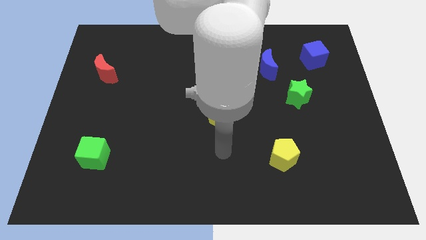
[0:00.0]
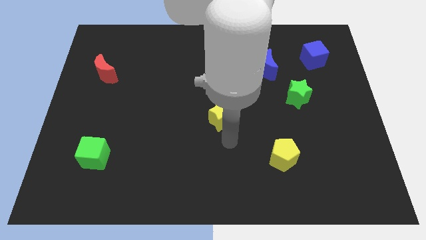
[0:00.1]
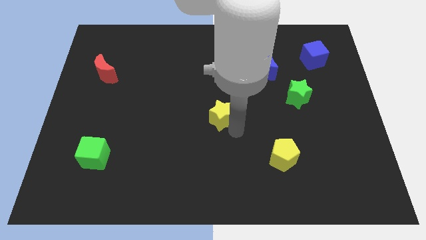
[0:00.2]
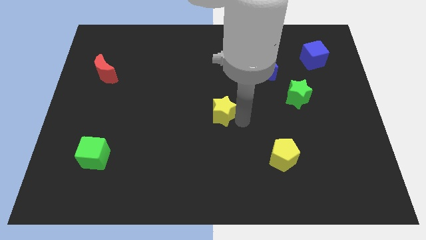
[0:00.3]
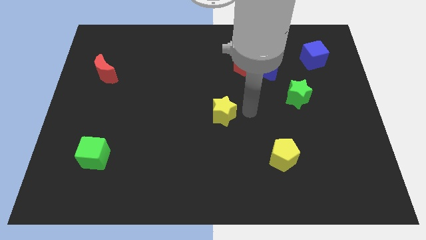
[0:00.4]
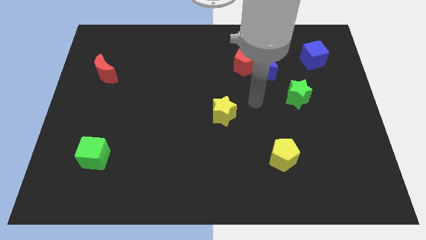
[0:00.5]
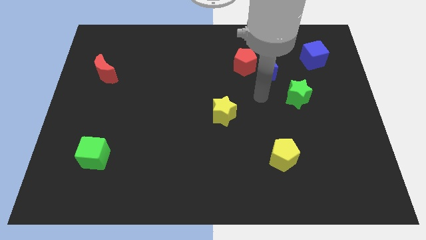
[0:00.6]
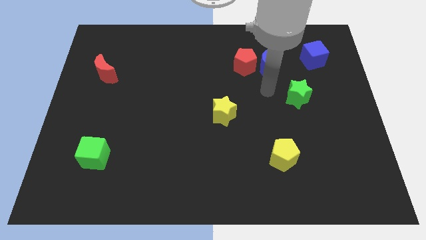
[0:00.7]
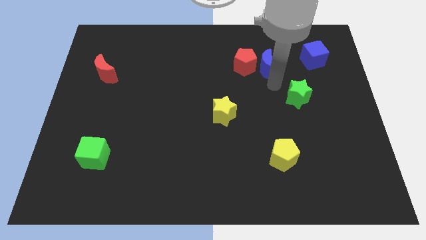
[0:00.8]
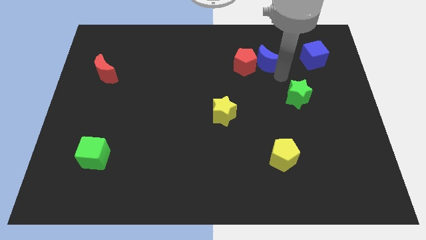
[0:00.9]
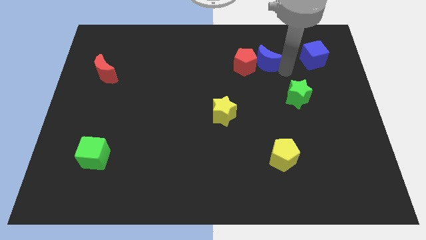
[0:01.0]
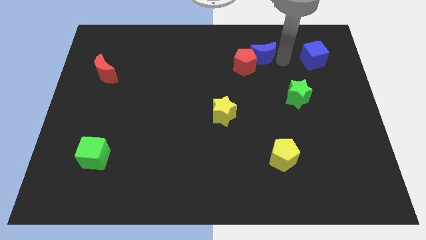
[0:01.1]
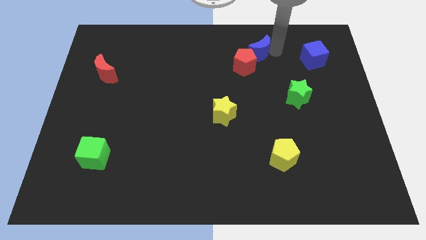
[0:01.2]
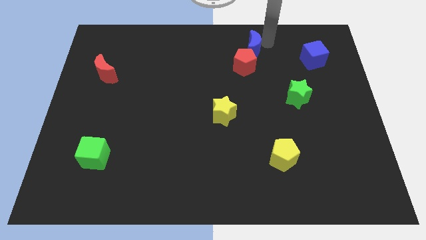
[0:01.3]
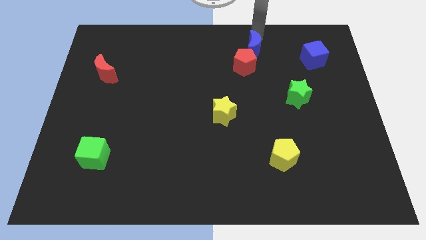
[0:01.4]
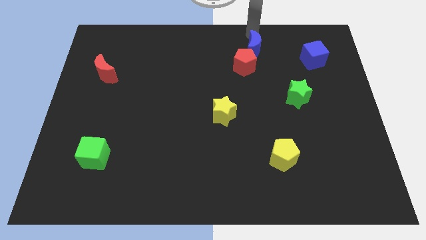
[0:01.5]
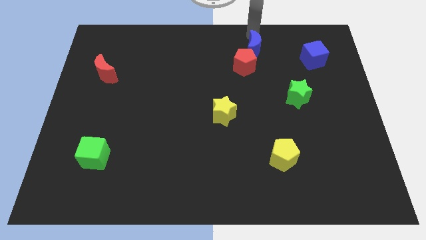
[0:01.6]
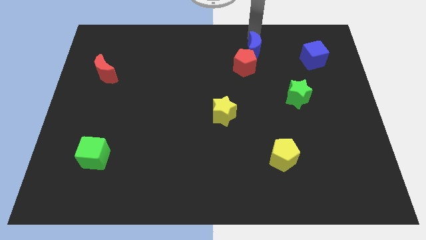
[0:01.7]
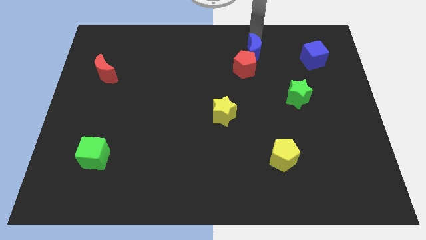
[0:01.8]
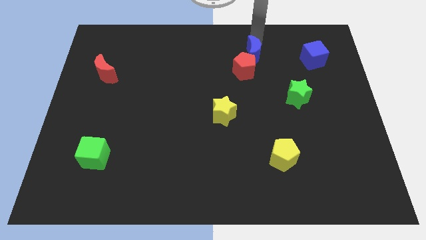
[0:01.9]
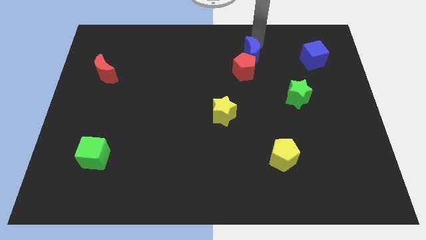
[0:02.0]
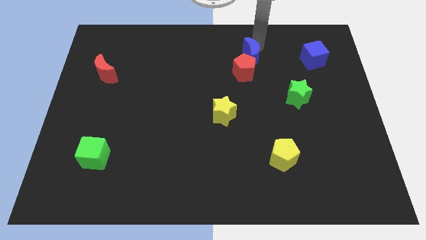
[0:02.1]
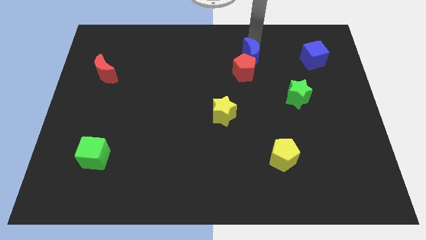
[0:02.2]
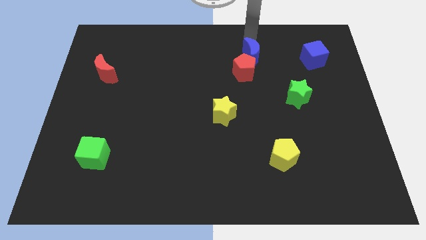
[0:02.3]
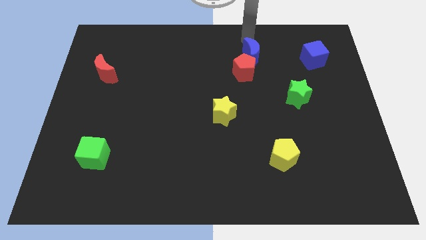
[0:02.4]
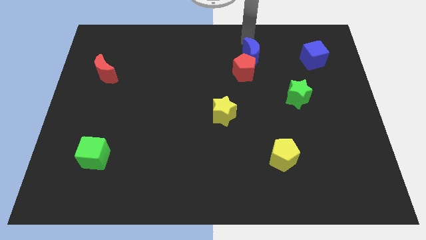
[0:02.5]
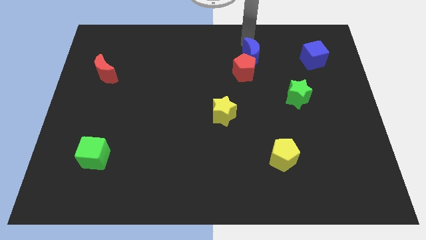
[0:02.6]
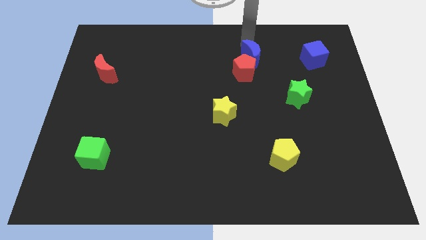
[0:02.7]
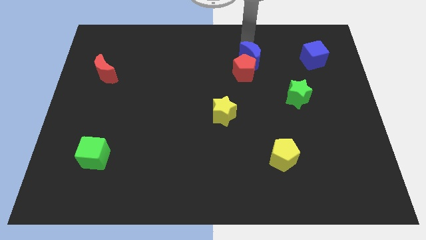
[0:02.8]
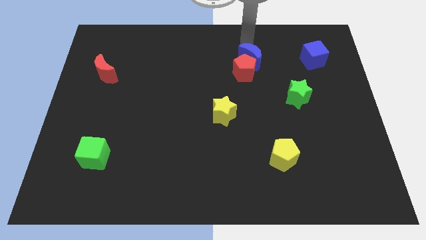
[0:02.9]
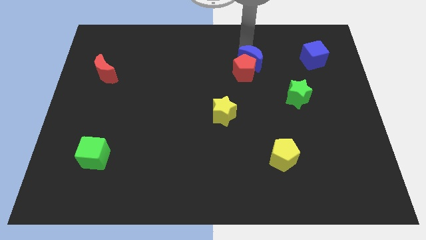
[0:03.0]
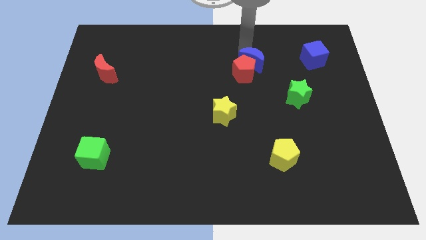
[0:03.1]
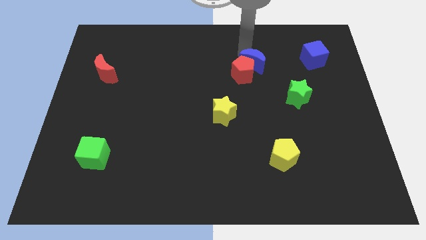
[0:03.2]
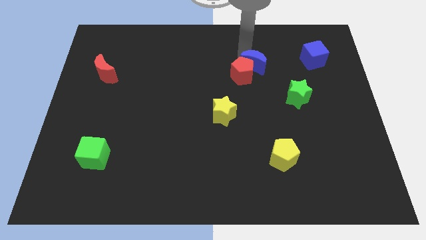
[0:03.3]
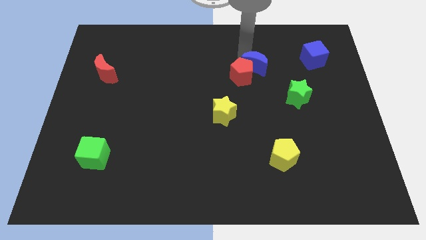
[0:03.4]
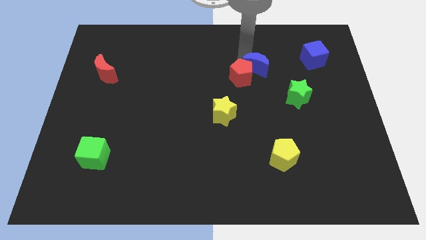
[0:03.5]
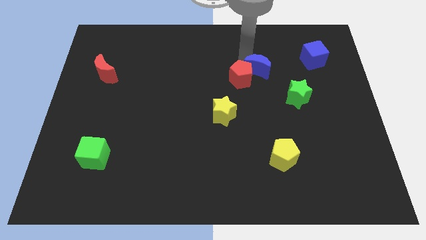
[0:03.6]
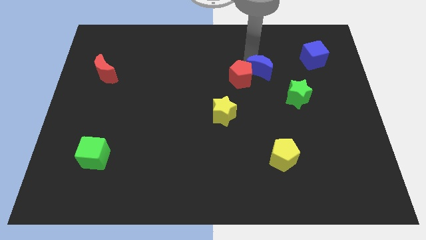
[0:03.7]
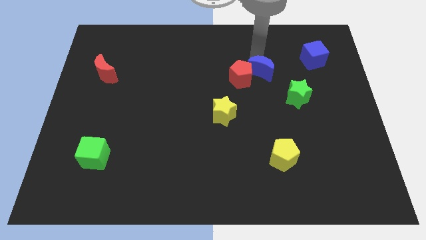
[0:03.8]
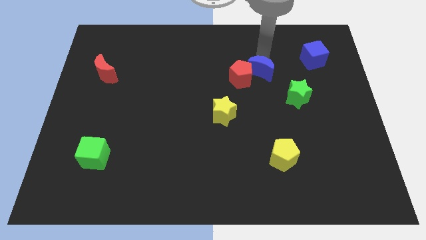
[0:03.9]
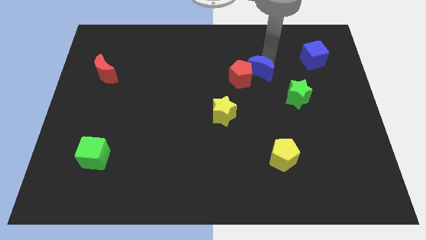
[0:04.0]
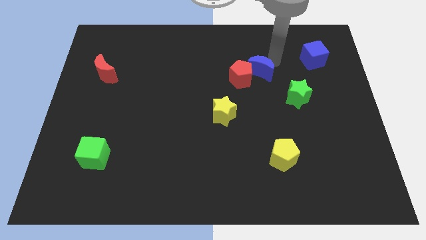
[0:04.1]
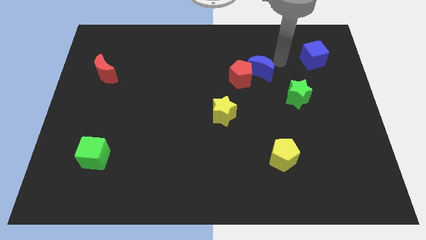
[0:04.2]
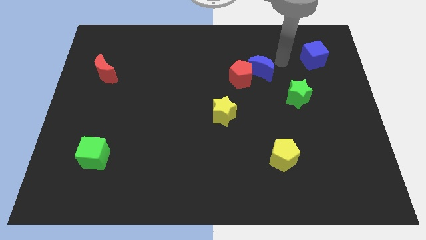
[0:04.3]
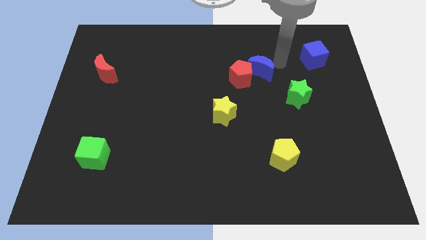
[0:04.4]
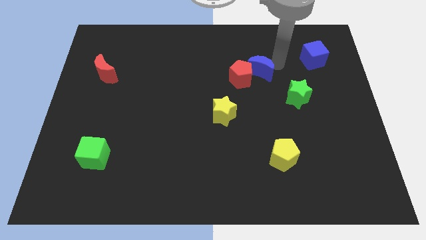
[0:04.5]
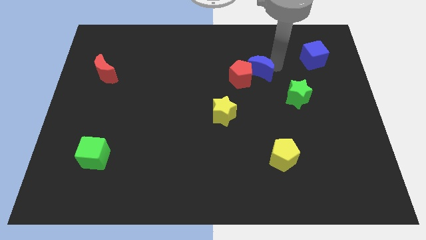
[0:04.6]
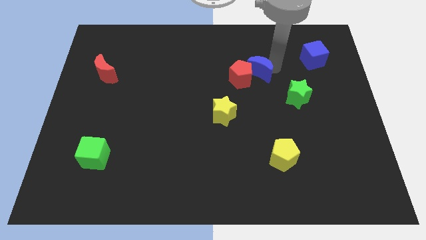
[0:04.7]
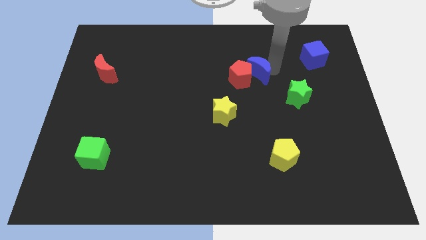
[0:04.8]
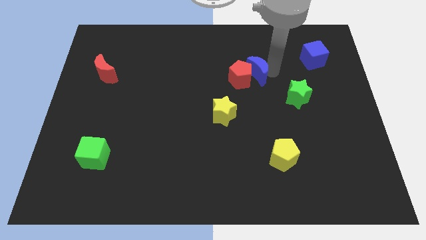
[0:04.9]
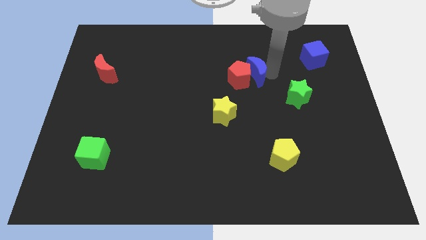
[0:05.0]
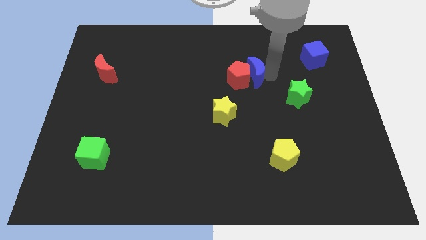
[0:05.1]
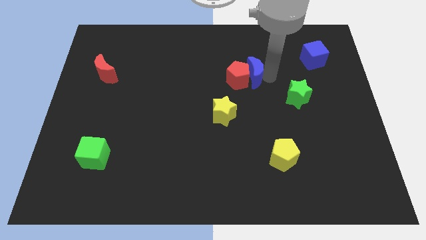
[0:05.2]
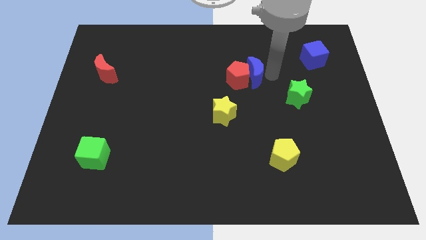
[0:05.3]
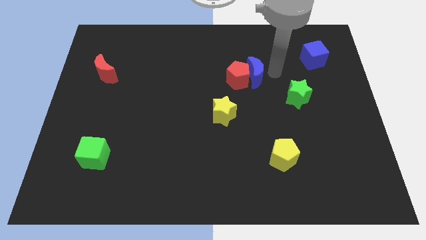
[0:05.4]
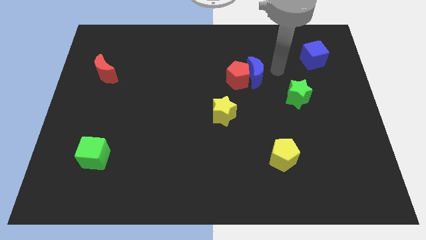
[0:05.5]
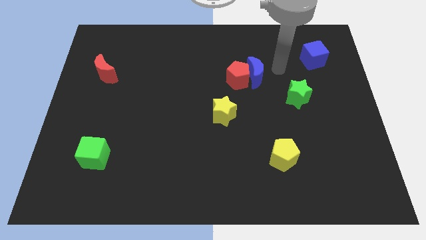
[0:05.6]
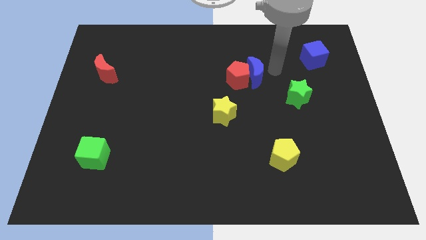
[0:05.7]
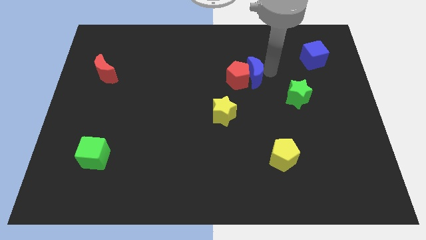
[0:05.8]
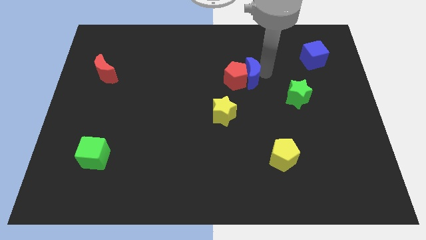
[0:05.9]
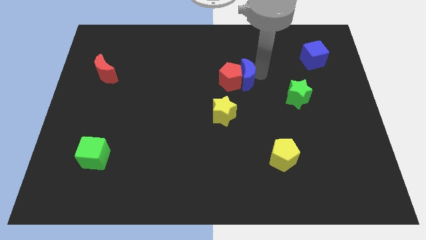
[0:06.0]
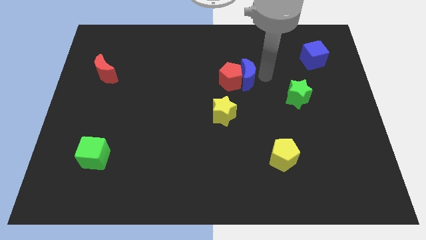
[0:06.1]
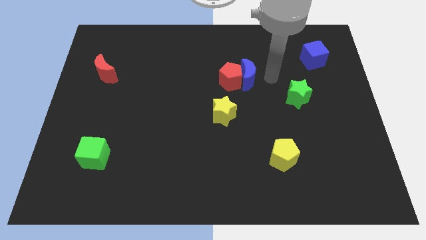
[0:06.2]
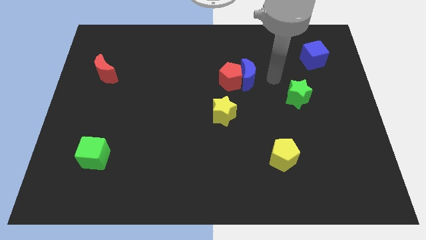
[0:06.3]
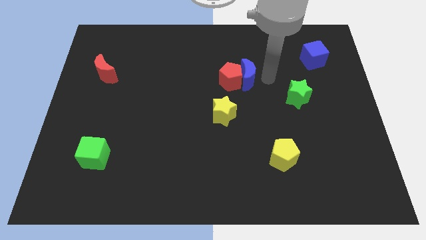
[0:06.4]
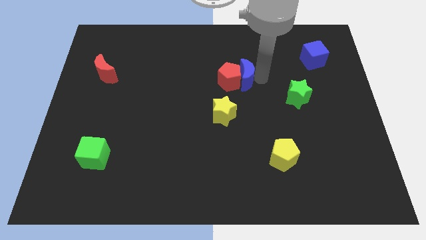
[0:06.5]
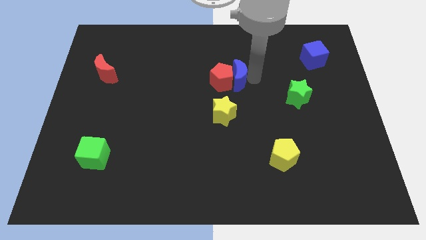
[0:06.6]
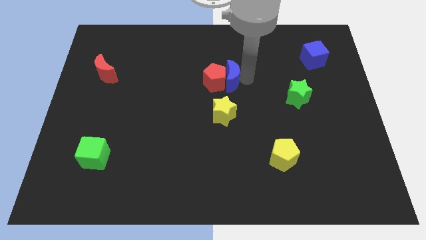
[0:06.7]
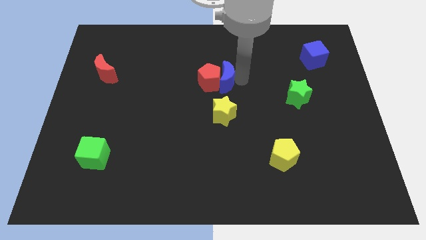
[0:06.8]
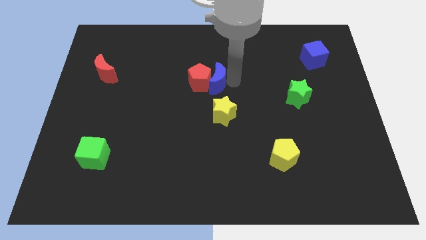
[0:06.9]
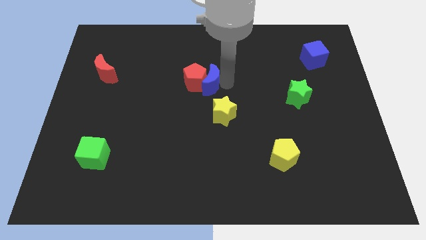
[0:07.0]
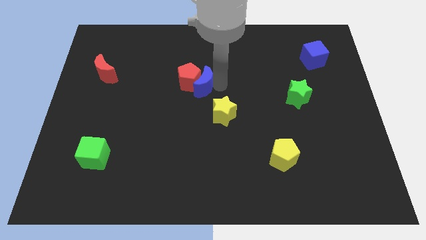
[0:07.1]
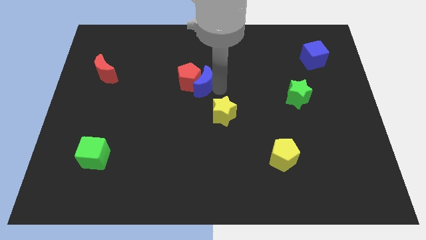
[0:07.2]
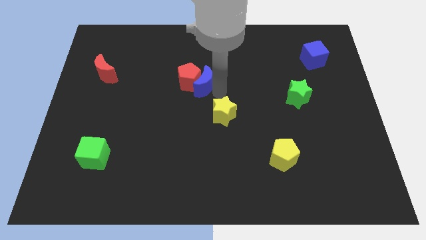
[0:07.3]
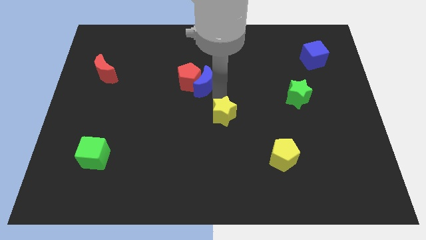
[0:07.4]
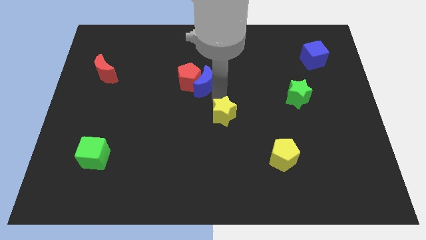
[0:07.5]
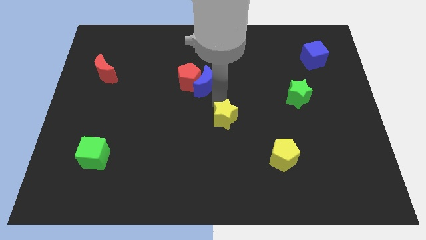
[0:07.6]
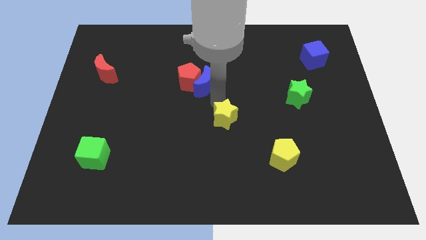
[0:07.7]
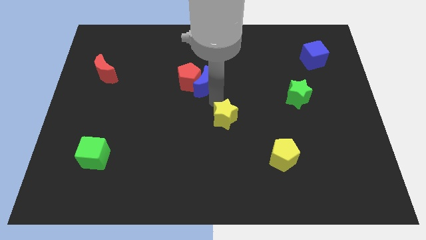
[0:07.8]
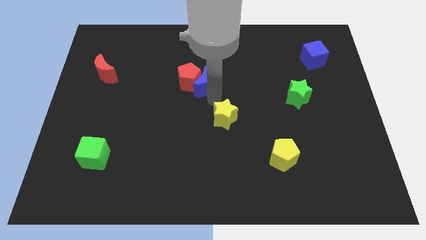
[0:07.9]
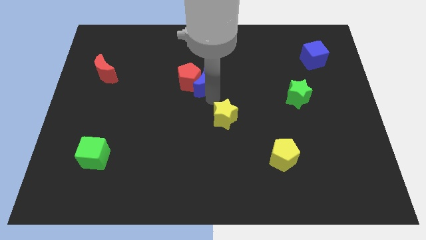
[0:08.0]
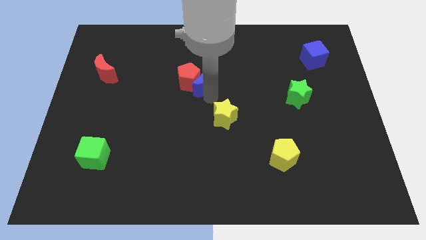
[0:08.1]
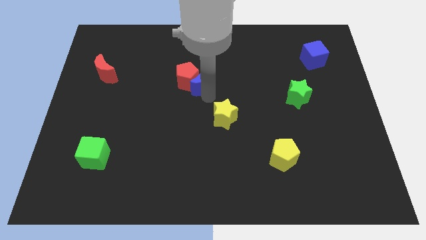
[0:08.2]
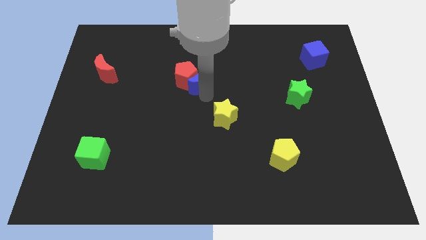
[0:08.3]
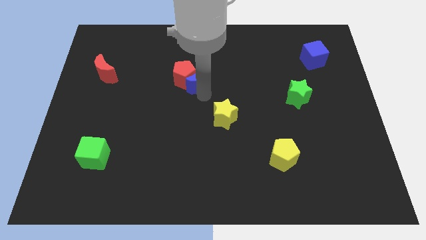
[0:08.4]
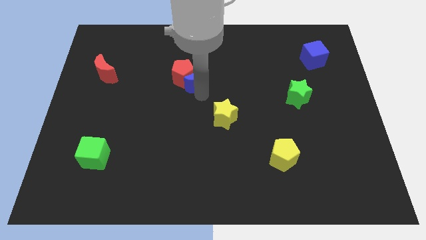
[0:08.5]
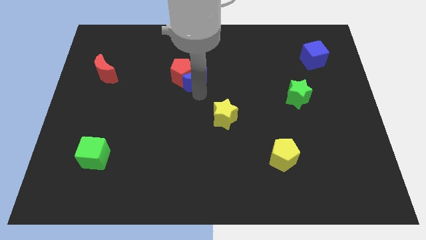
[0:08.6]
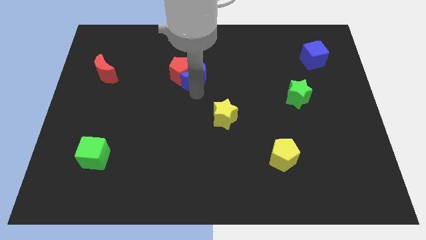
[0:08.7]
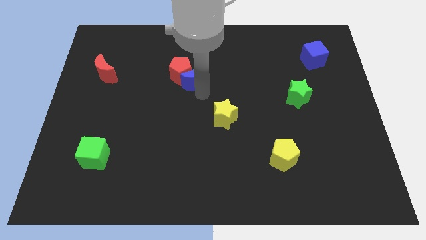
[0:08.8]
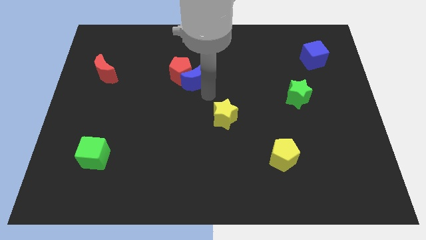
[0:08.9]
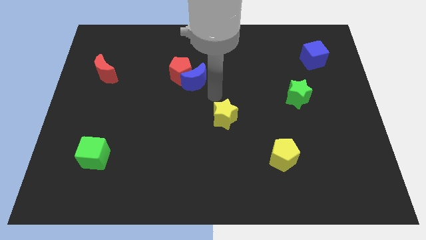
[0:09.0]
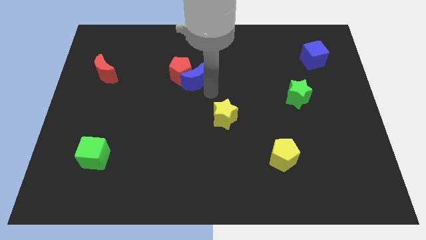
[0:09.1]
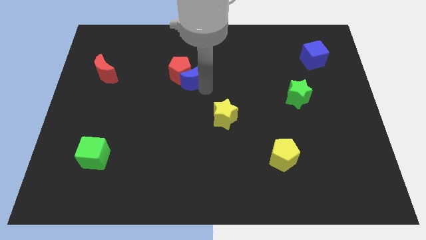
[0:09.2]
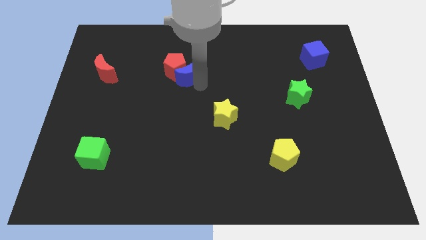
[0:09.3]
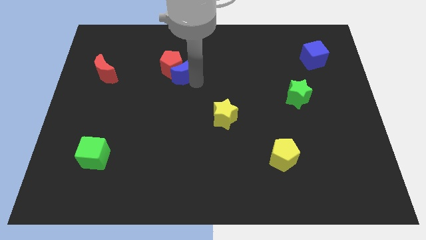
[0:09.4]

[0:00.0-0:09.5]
push the blue moon to the left
